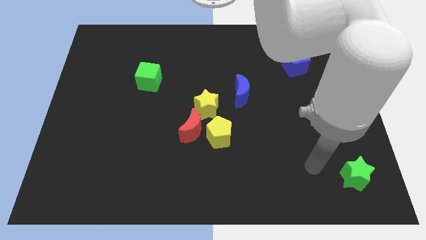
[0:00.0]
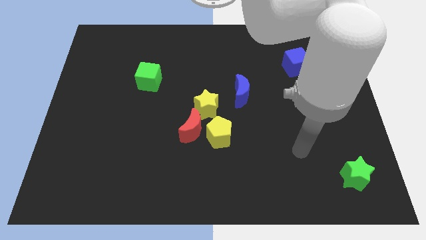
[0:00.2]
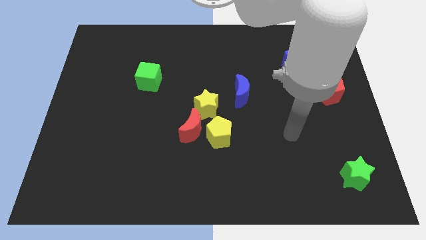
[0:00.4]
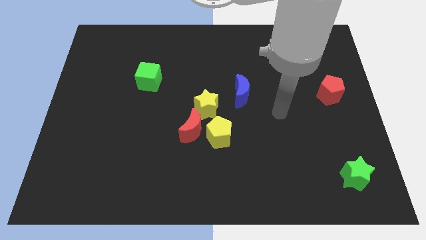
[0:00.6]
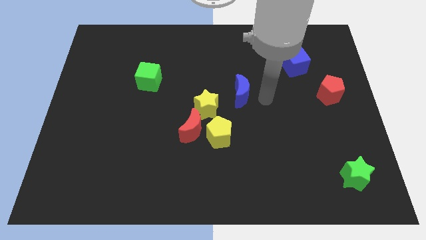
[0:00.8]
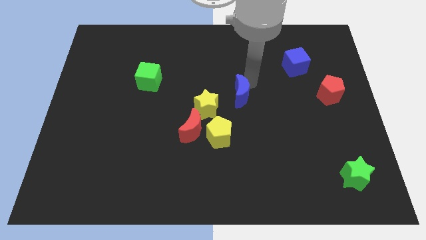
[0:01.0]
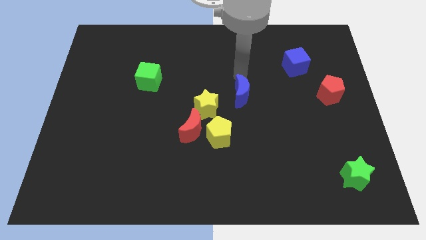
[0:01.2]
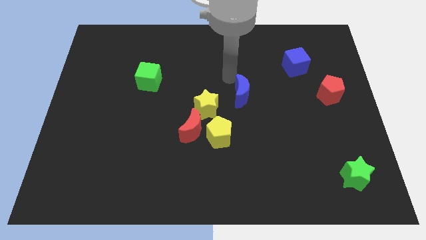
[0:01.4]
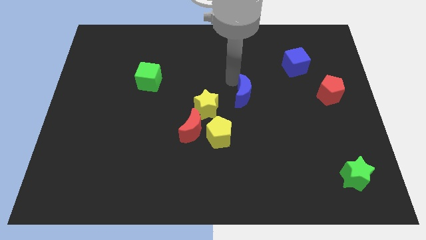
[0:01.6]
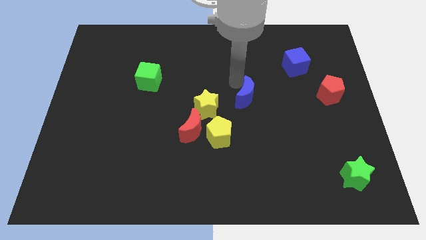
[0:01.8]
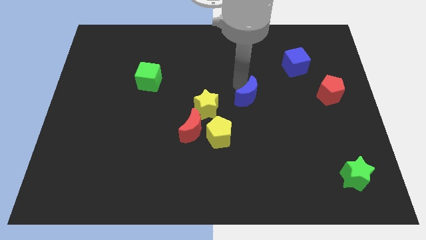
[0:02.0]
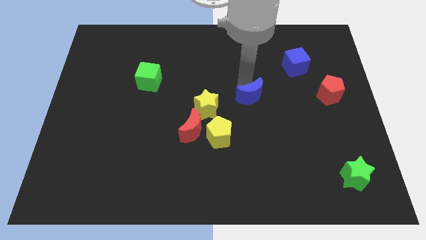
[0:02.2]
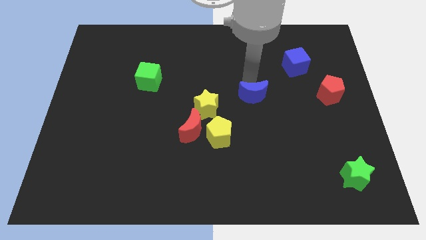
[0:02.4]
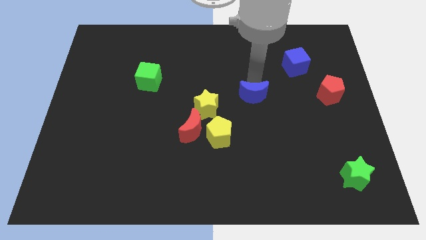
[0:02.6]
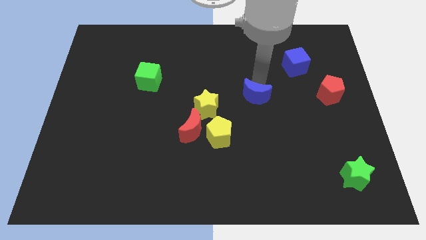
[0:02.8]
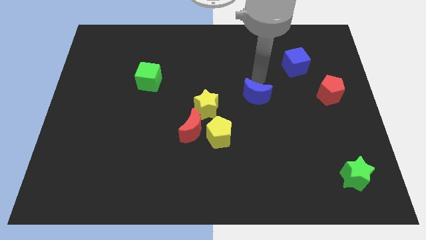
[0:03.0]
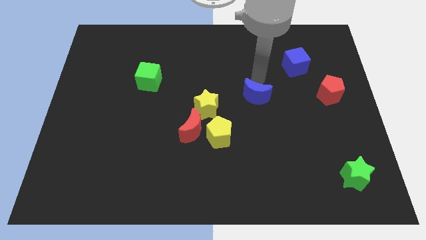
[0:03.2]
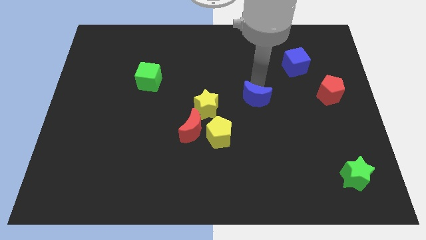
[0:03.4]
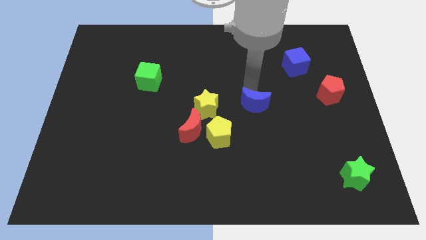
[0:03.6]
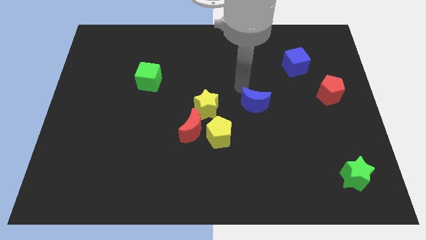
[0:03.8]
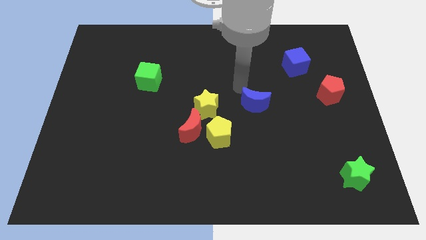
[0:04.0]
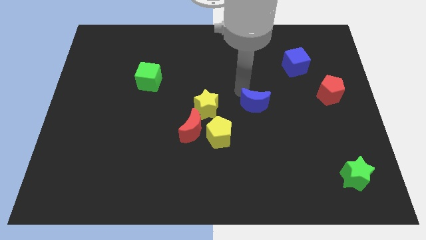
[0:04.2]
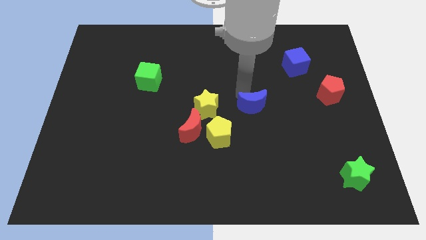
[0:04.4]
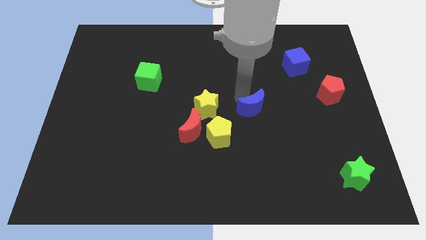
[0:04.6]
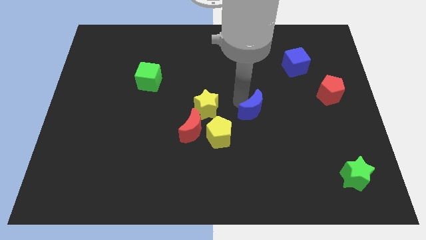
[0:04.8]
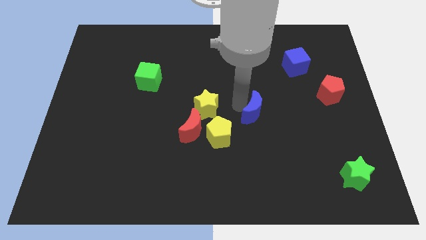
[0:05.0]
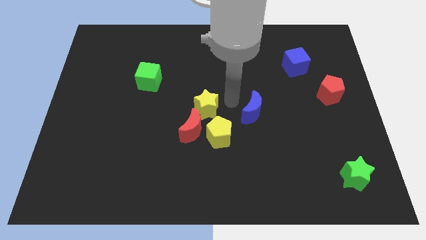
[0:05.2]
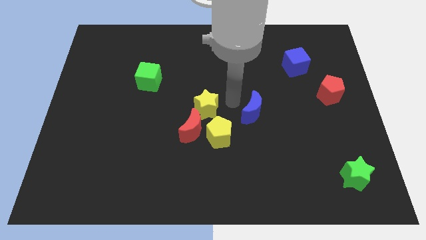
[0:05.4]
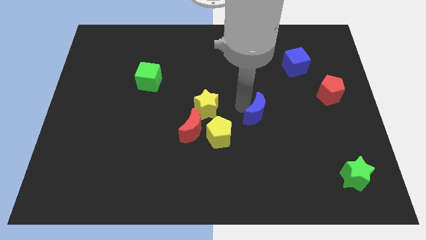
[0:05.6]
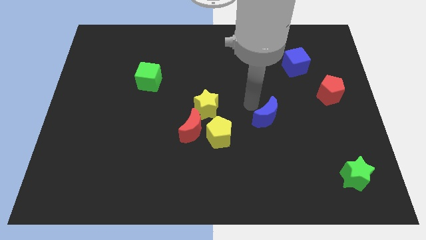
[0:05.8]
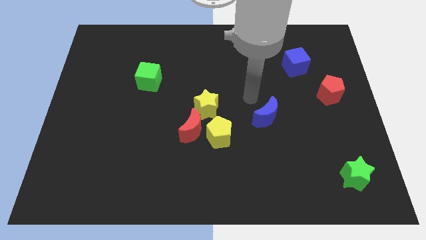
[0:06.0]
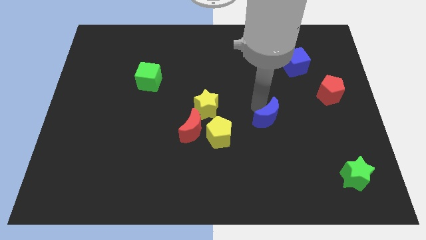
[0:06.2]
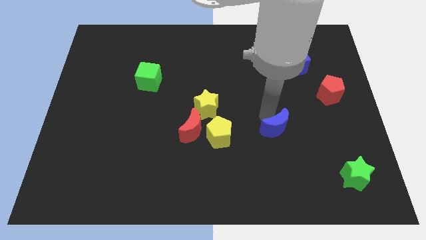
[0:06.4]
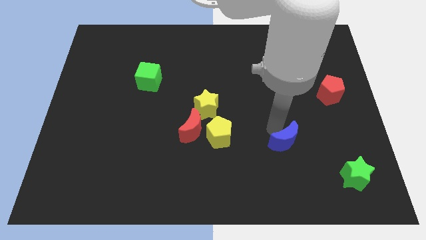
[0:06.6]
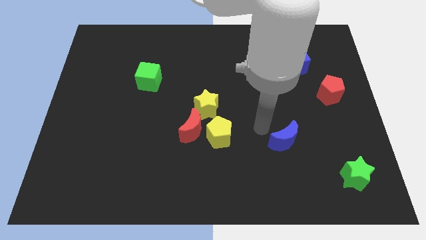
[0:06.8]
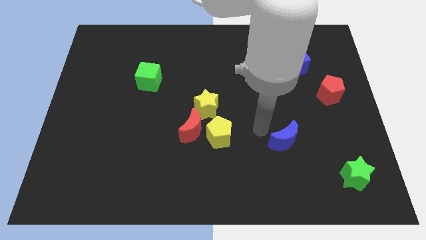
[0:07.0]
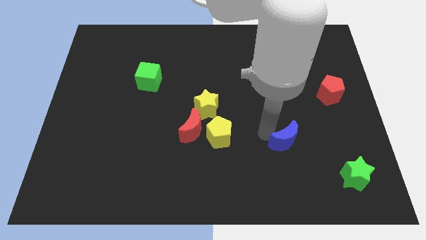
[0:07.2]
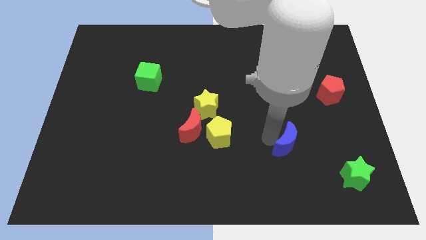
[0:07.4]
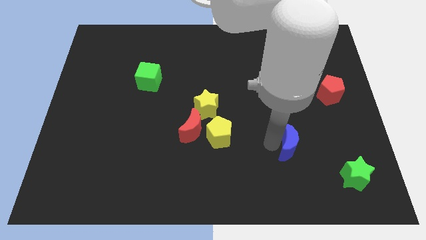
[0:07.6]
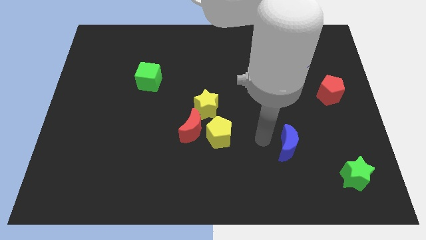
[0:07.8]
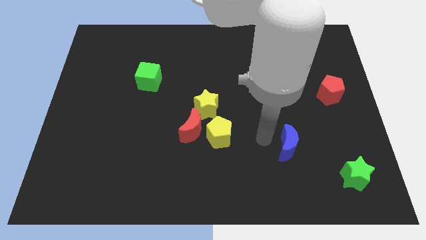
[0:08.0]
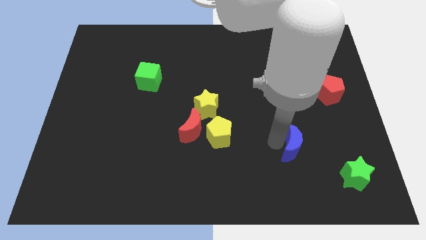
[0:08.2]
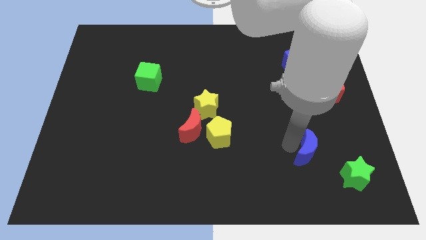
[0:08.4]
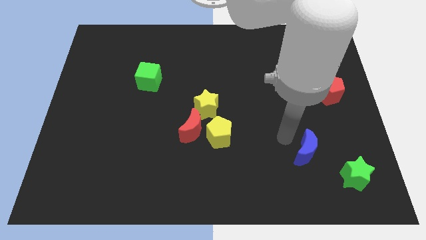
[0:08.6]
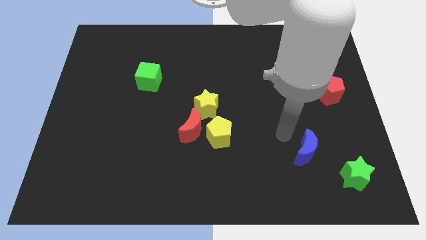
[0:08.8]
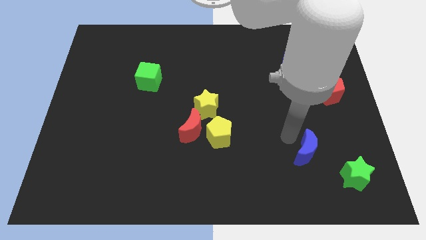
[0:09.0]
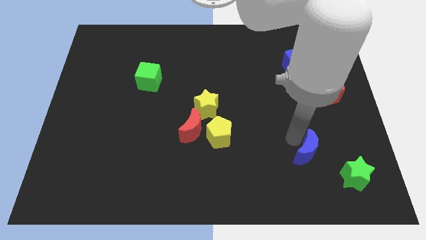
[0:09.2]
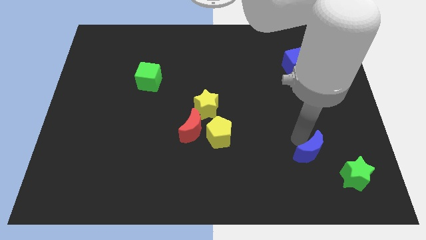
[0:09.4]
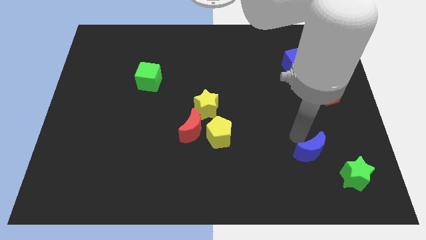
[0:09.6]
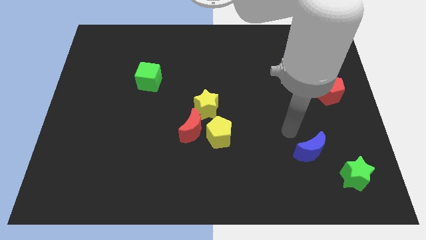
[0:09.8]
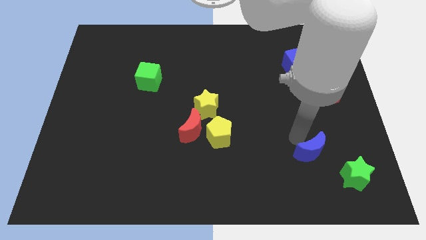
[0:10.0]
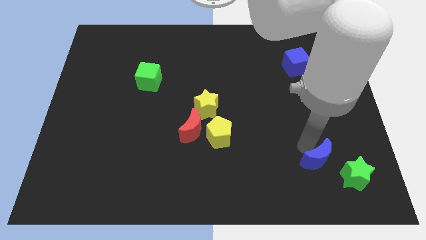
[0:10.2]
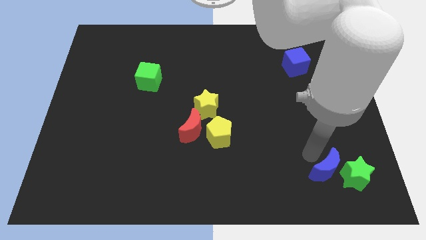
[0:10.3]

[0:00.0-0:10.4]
put the blue moon close to the green star

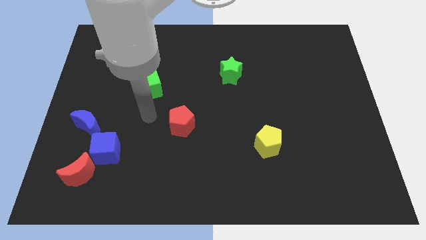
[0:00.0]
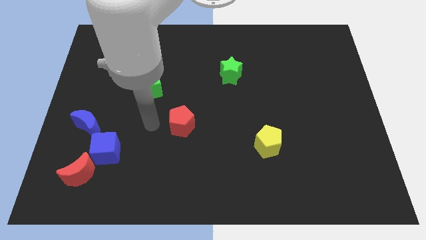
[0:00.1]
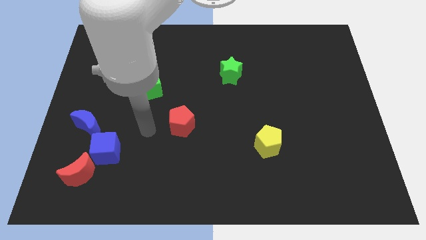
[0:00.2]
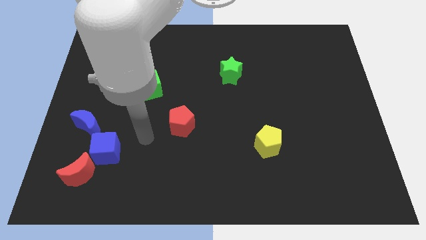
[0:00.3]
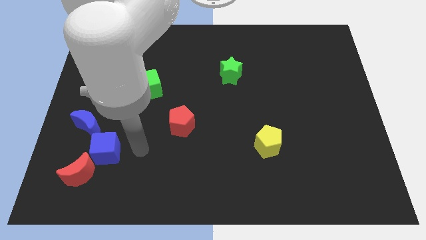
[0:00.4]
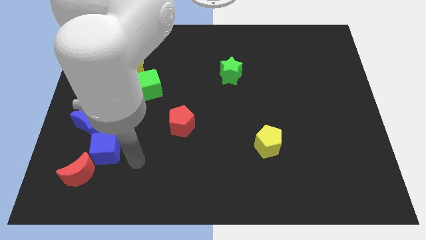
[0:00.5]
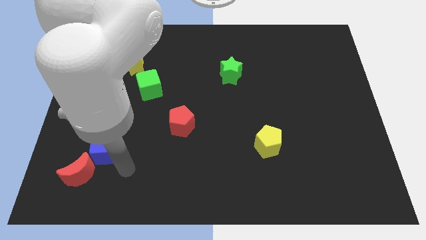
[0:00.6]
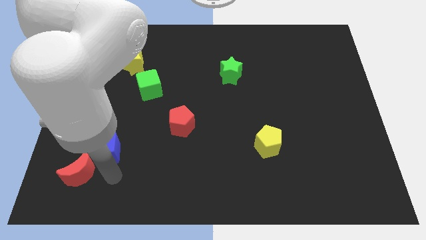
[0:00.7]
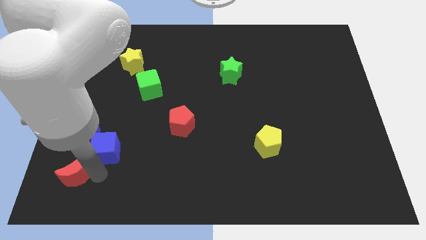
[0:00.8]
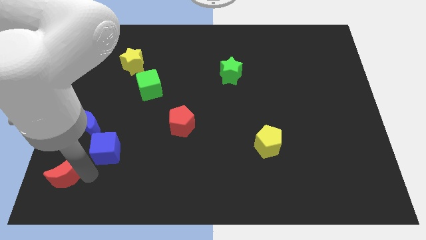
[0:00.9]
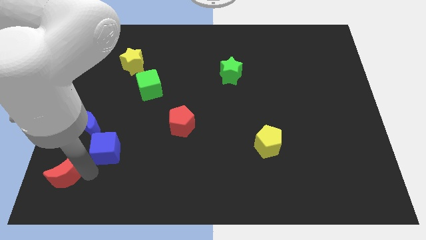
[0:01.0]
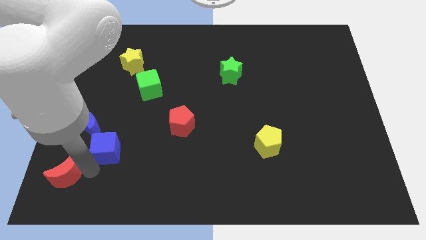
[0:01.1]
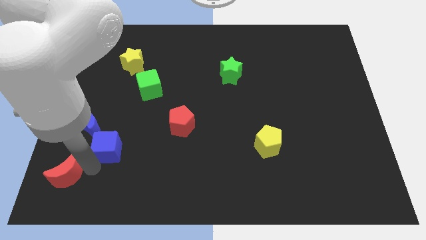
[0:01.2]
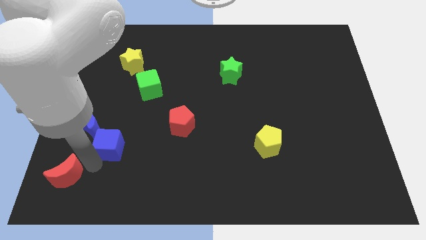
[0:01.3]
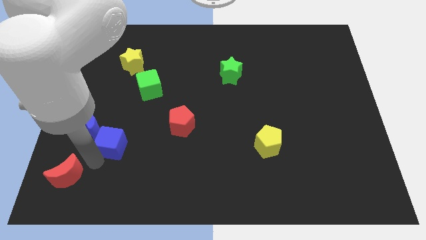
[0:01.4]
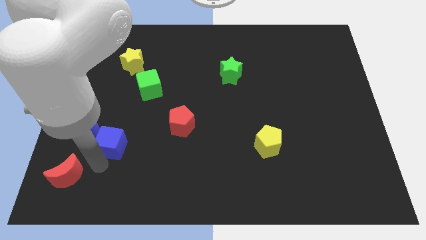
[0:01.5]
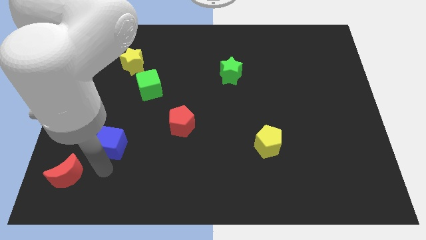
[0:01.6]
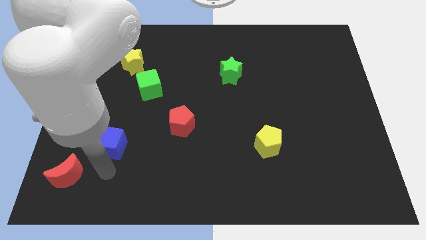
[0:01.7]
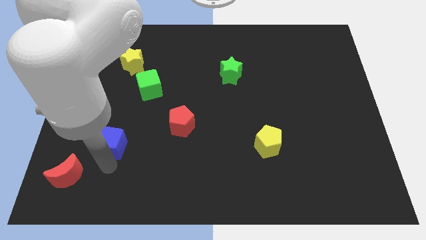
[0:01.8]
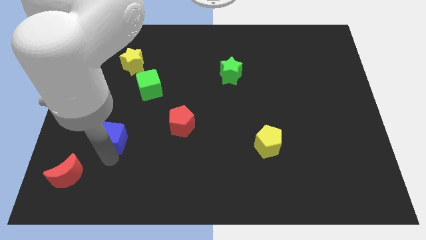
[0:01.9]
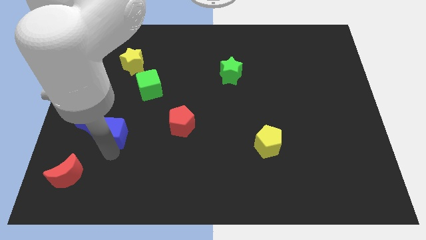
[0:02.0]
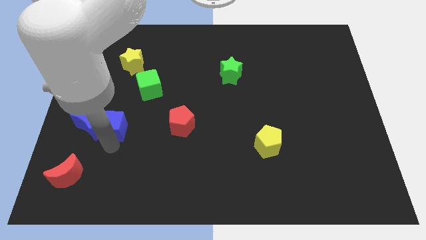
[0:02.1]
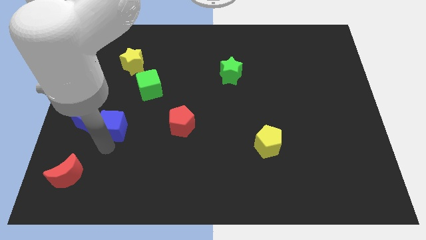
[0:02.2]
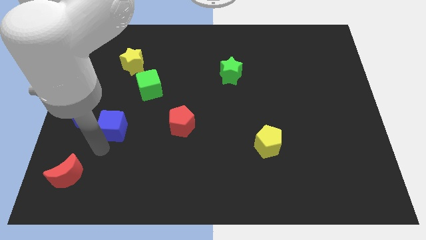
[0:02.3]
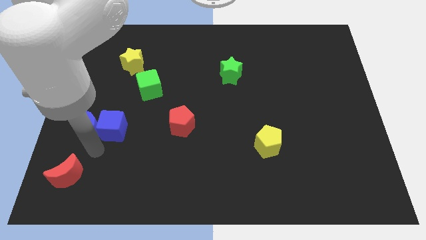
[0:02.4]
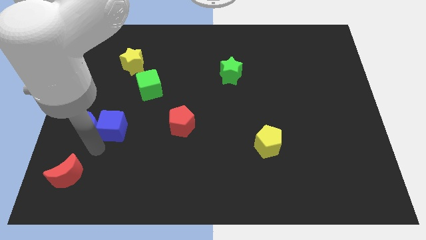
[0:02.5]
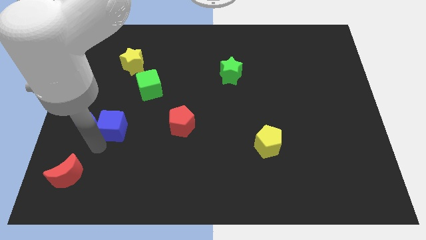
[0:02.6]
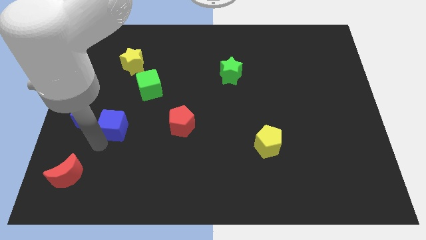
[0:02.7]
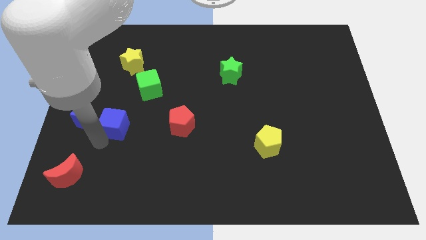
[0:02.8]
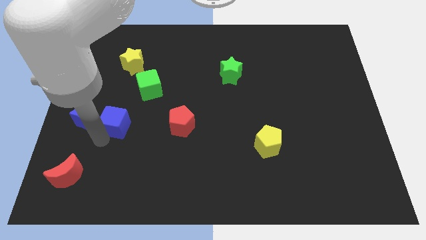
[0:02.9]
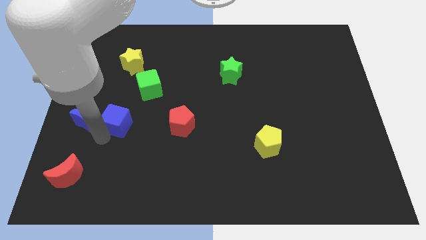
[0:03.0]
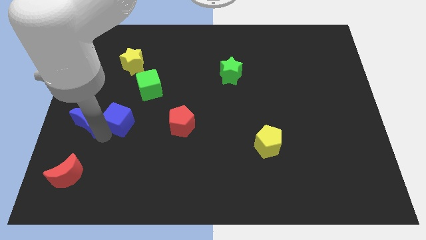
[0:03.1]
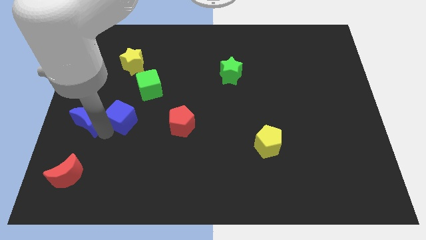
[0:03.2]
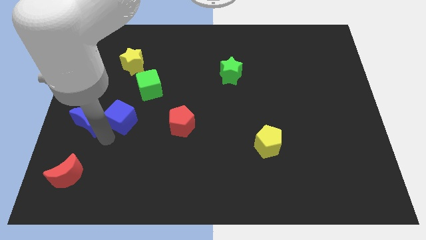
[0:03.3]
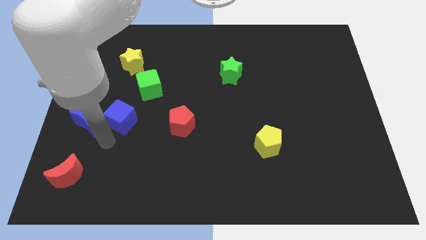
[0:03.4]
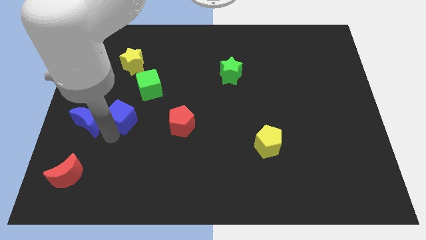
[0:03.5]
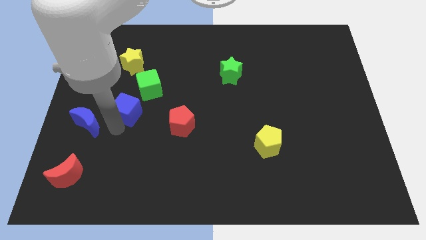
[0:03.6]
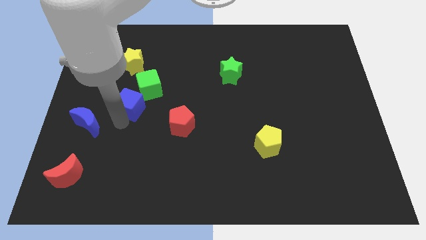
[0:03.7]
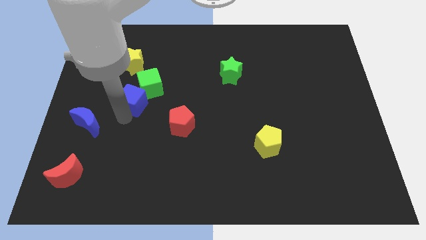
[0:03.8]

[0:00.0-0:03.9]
push the blue cube close to the green cube
